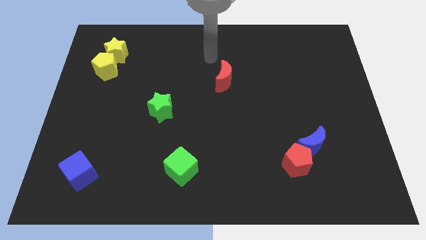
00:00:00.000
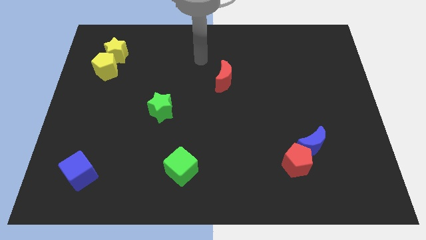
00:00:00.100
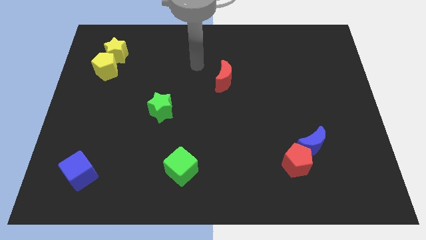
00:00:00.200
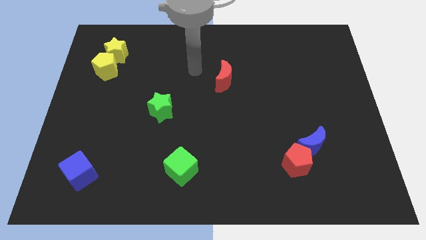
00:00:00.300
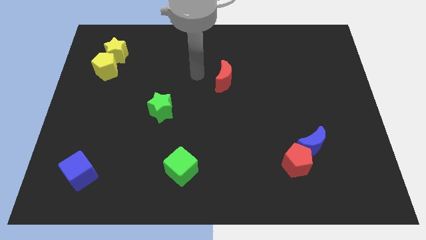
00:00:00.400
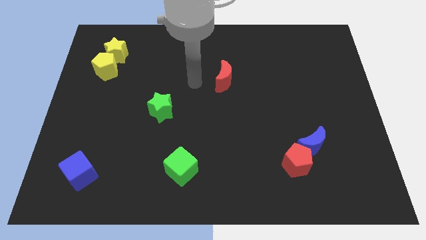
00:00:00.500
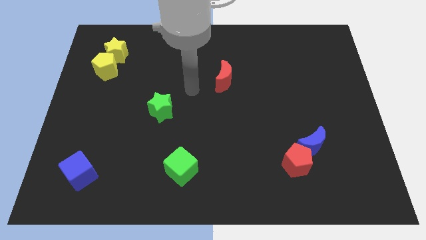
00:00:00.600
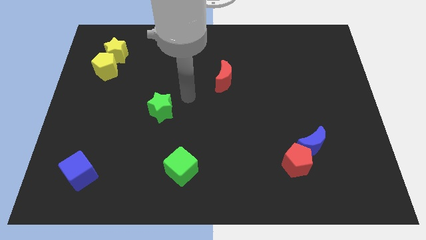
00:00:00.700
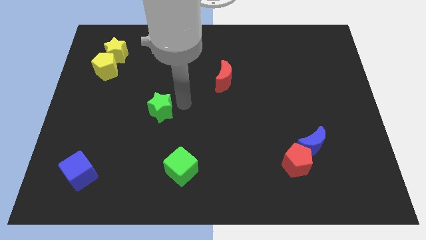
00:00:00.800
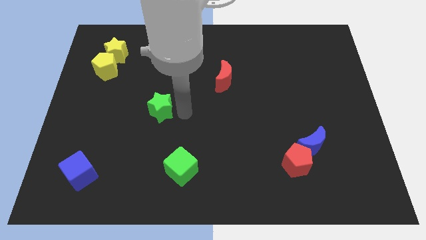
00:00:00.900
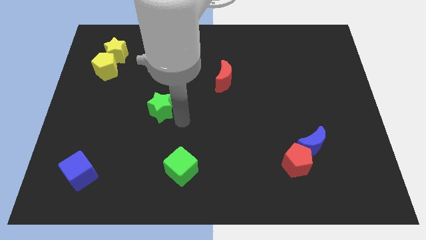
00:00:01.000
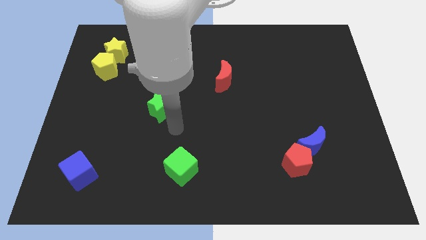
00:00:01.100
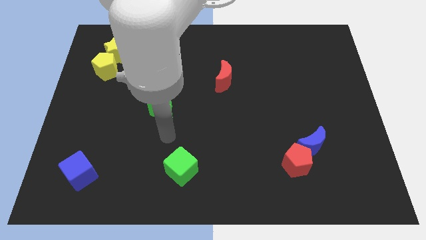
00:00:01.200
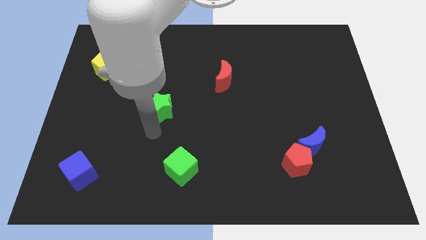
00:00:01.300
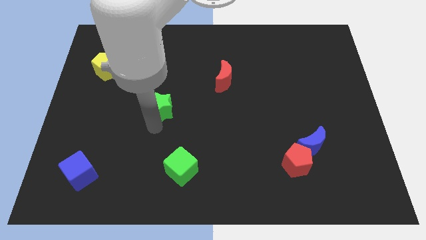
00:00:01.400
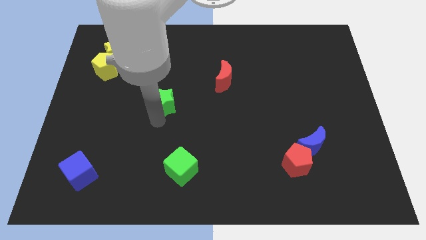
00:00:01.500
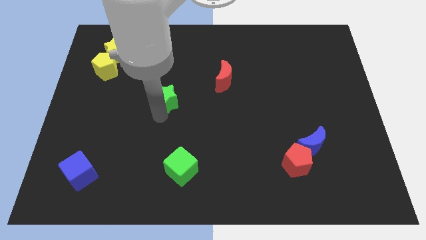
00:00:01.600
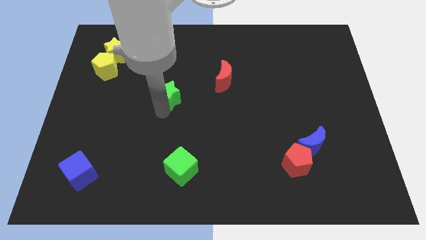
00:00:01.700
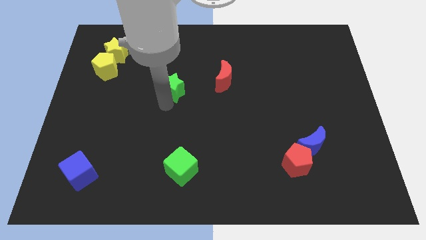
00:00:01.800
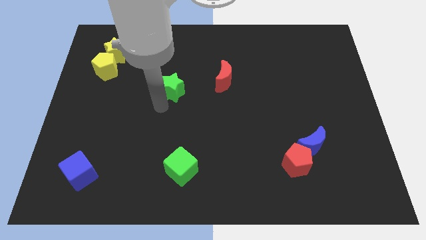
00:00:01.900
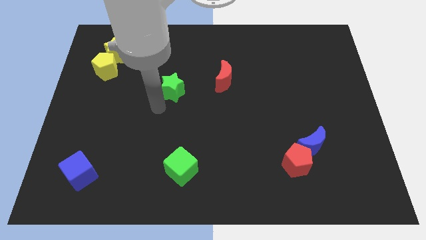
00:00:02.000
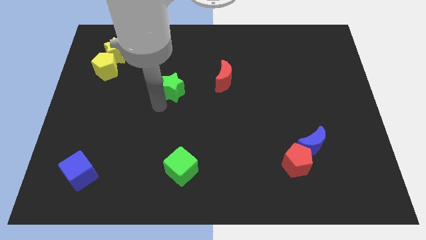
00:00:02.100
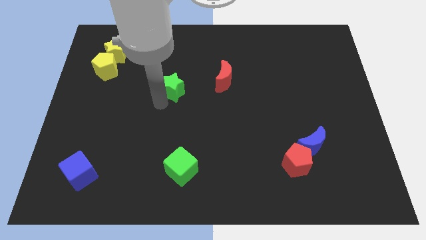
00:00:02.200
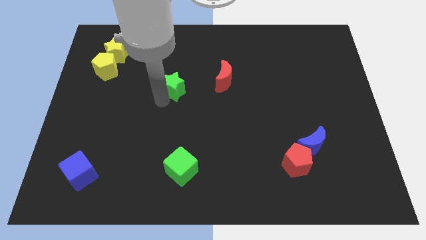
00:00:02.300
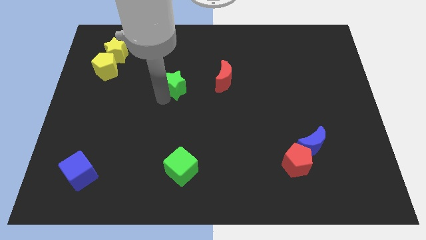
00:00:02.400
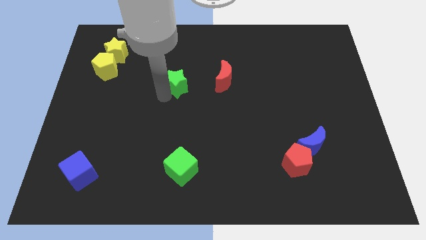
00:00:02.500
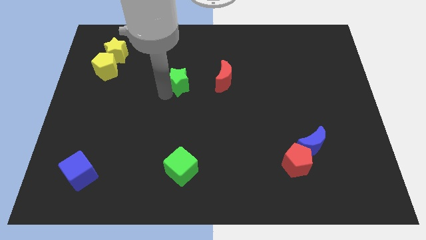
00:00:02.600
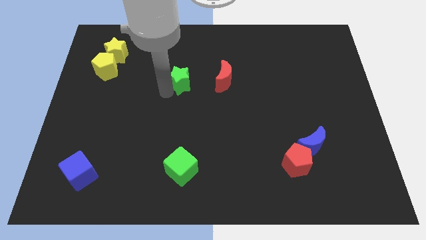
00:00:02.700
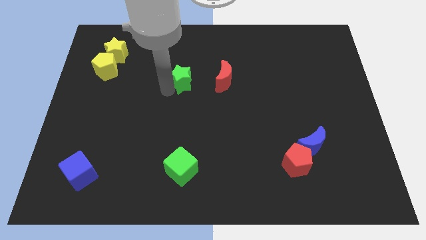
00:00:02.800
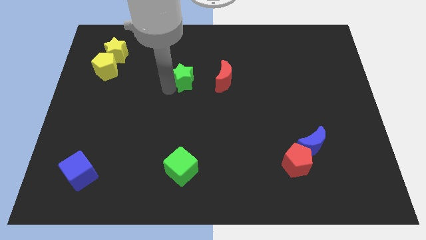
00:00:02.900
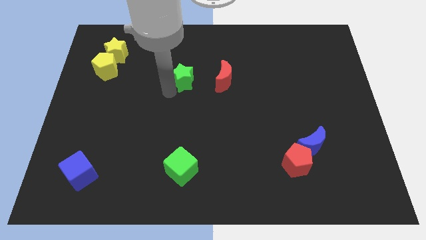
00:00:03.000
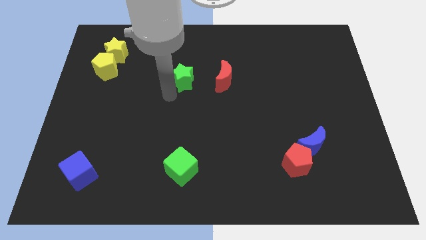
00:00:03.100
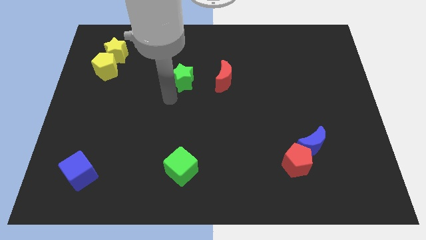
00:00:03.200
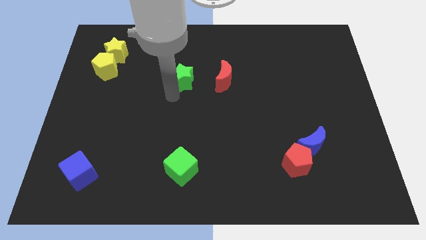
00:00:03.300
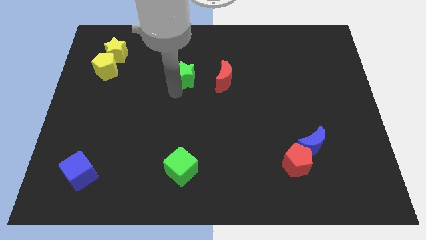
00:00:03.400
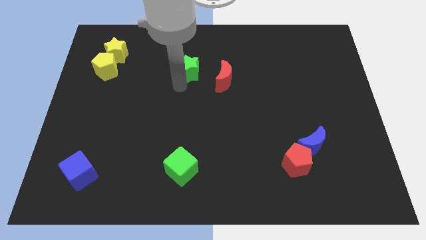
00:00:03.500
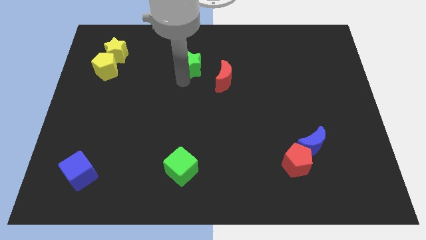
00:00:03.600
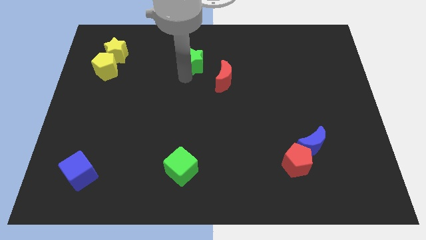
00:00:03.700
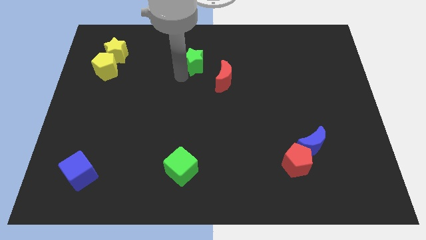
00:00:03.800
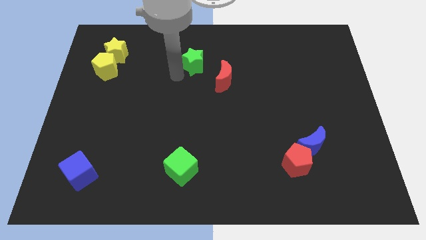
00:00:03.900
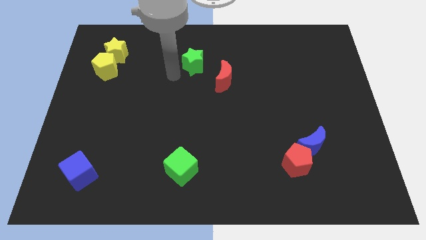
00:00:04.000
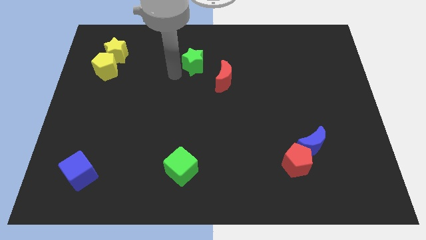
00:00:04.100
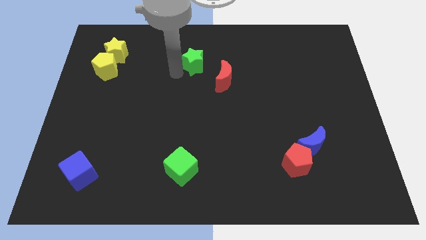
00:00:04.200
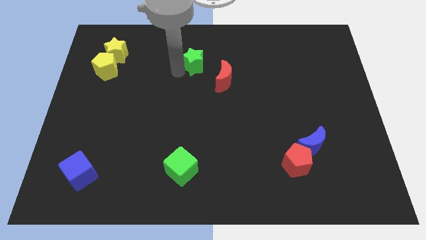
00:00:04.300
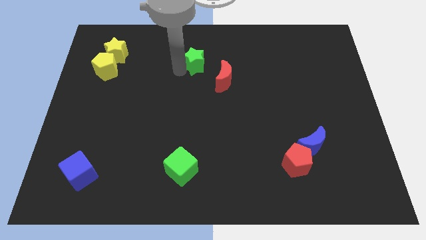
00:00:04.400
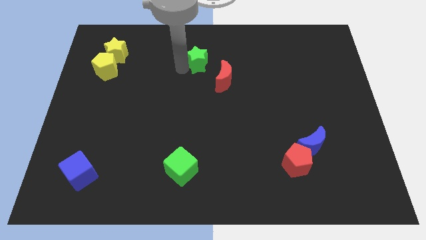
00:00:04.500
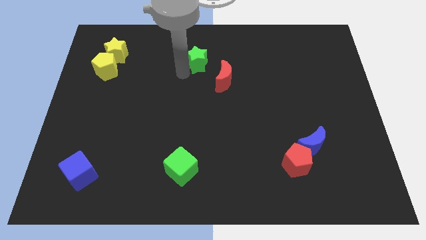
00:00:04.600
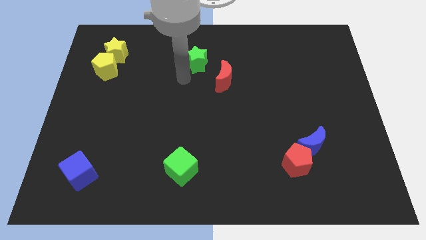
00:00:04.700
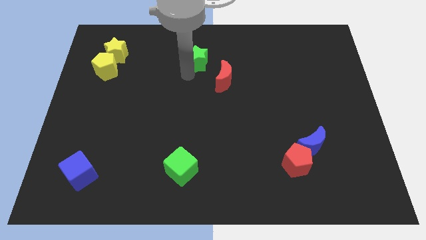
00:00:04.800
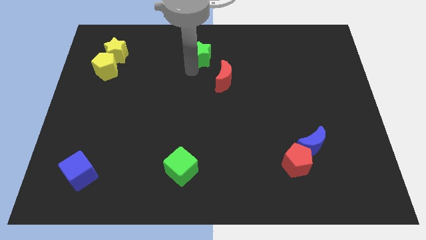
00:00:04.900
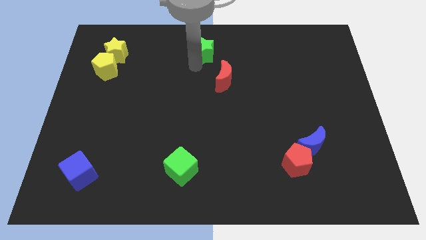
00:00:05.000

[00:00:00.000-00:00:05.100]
put the green star to the top

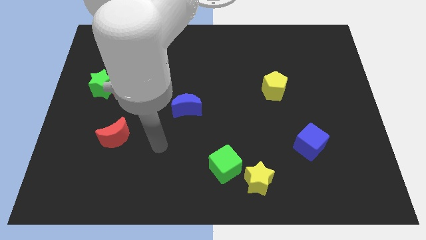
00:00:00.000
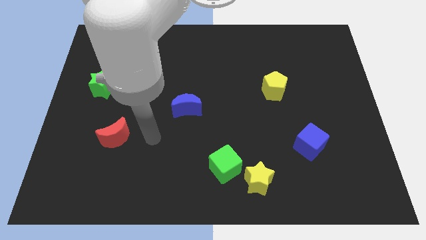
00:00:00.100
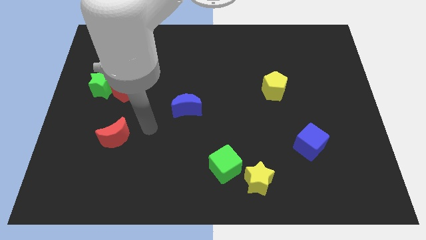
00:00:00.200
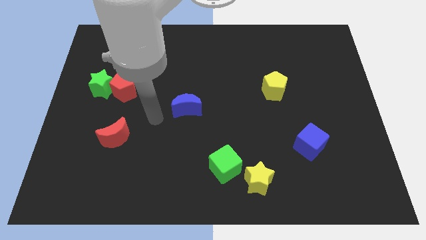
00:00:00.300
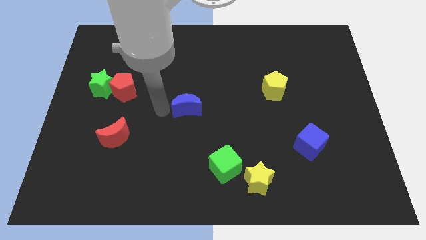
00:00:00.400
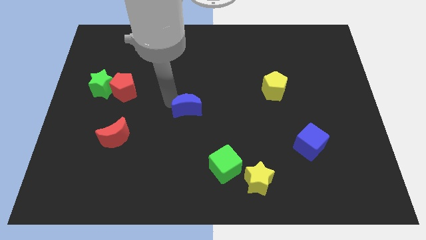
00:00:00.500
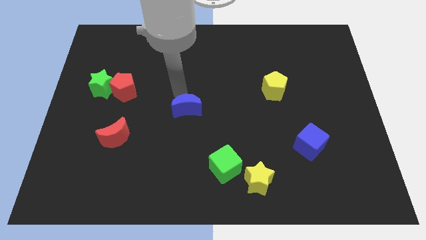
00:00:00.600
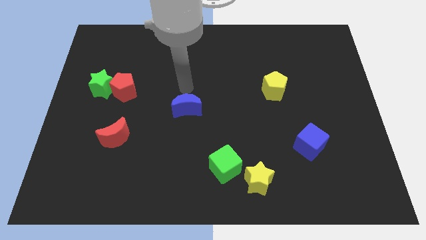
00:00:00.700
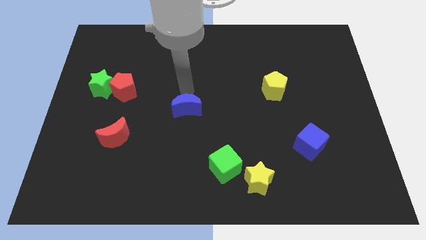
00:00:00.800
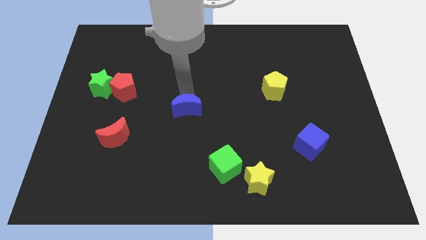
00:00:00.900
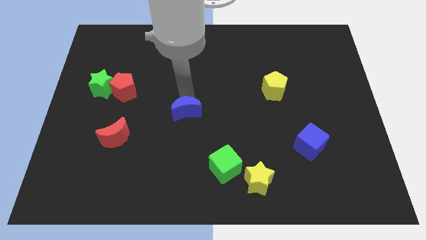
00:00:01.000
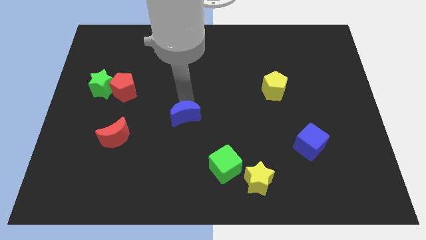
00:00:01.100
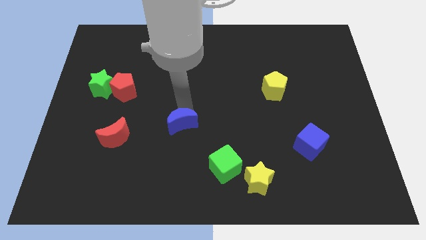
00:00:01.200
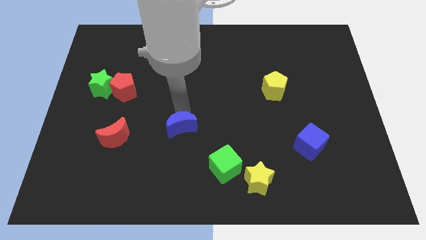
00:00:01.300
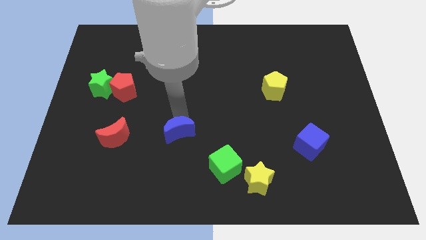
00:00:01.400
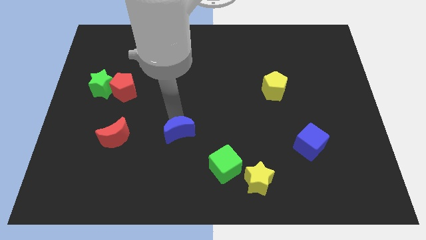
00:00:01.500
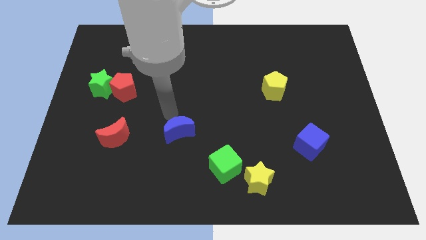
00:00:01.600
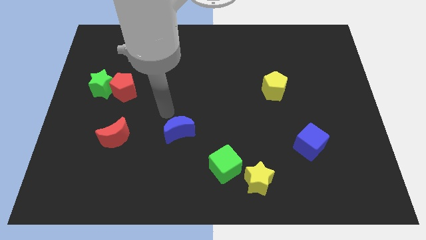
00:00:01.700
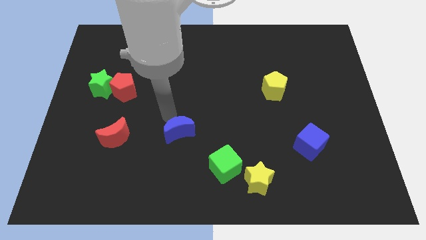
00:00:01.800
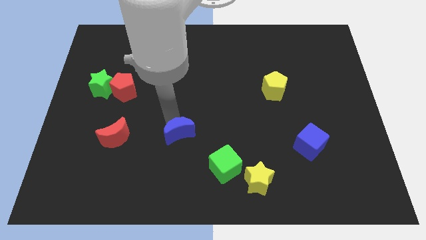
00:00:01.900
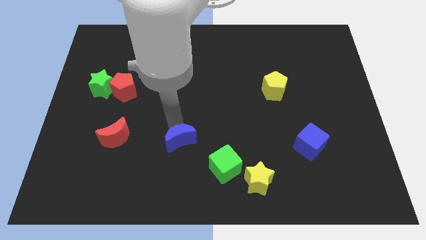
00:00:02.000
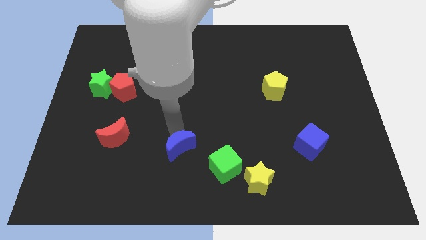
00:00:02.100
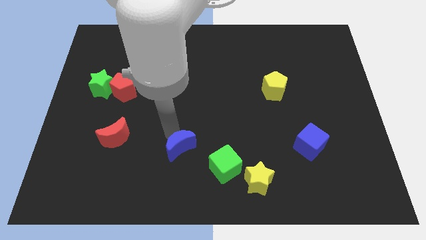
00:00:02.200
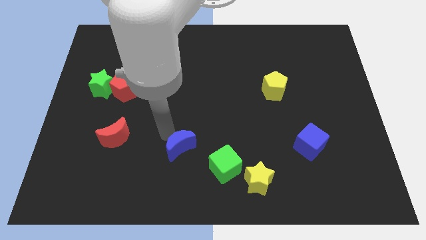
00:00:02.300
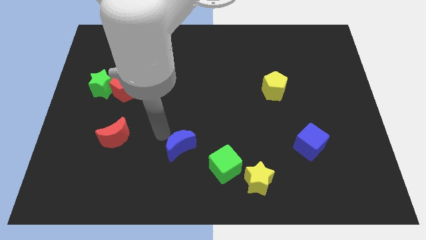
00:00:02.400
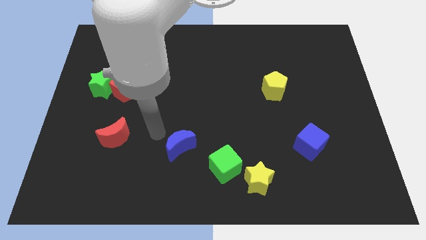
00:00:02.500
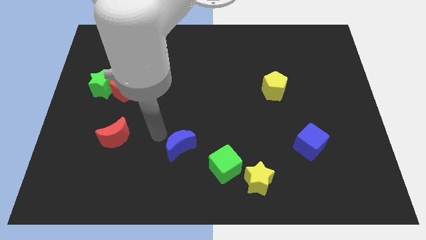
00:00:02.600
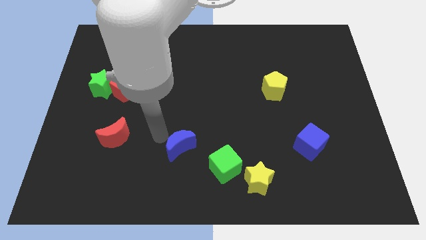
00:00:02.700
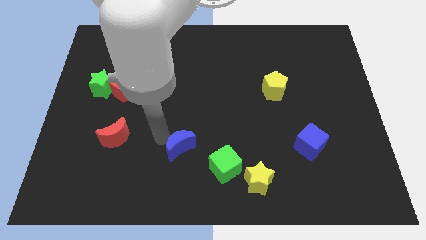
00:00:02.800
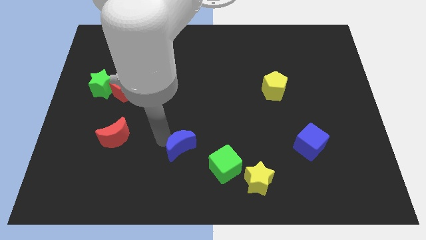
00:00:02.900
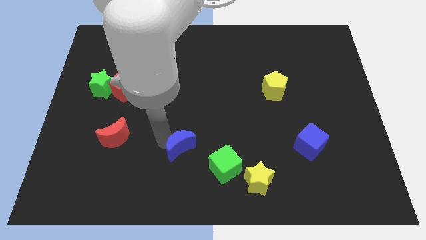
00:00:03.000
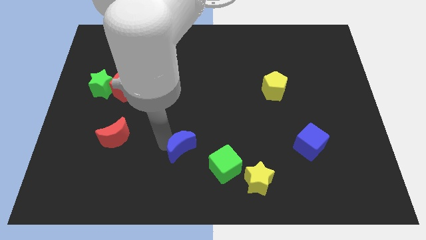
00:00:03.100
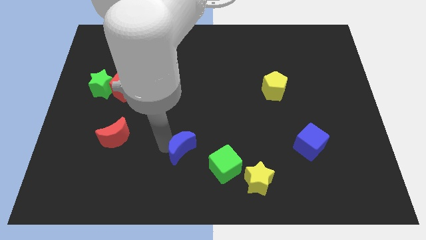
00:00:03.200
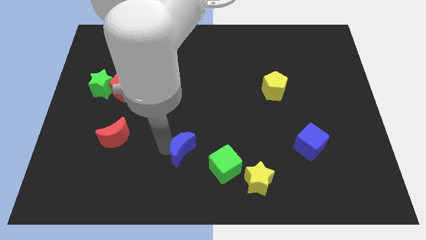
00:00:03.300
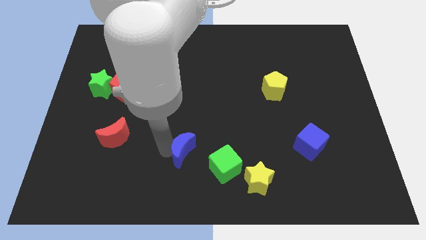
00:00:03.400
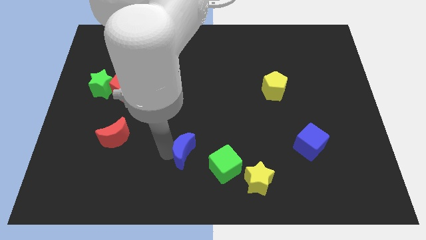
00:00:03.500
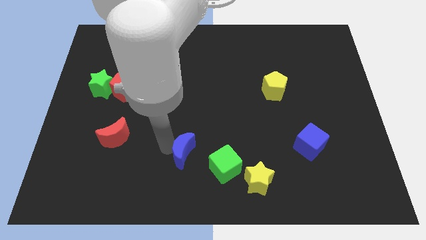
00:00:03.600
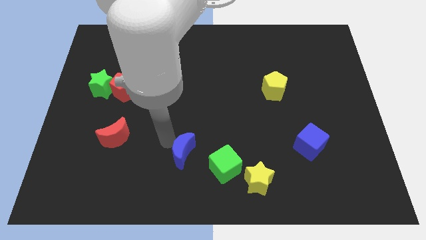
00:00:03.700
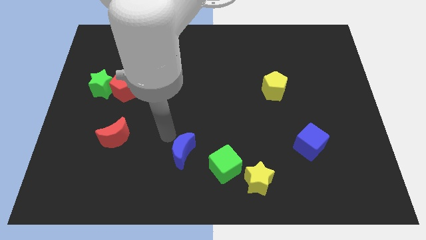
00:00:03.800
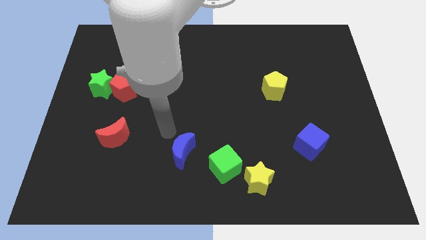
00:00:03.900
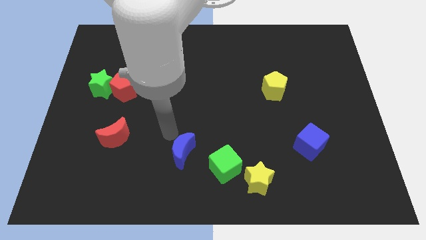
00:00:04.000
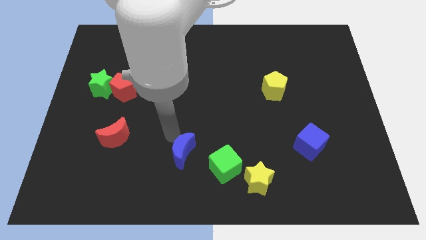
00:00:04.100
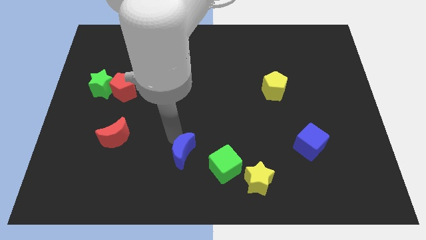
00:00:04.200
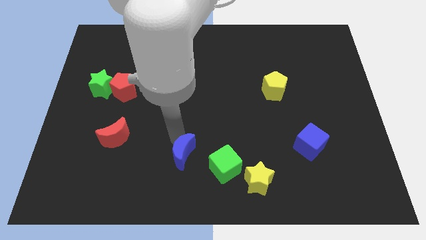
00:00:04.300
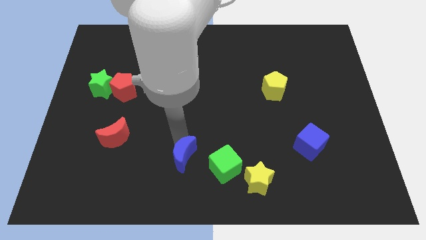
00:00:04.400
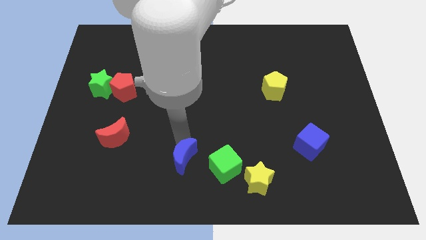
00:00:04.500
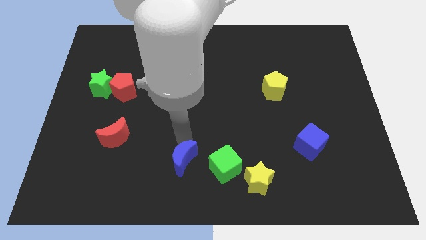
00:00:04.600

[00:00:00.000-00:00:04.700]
push the blue moon to the bottom side
